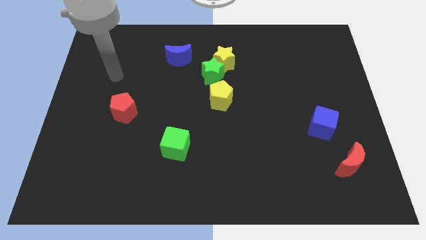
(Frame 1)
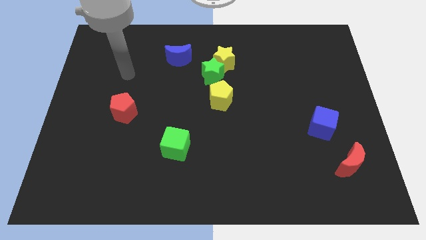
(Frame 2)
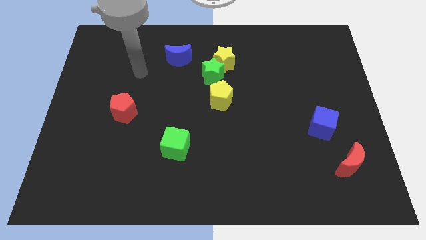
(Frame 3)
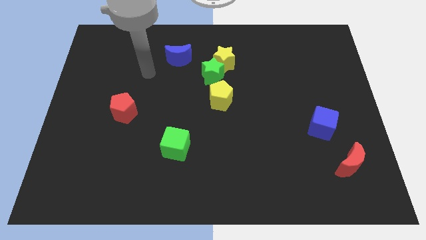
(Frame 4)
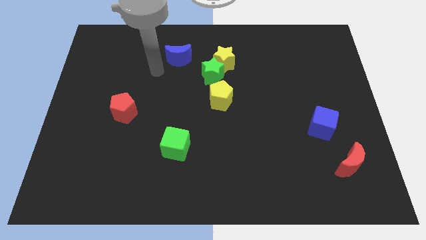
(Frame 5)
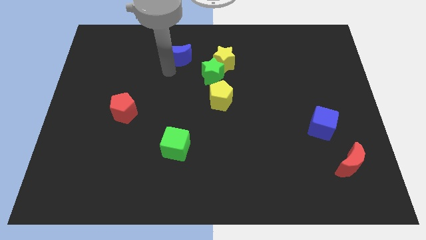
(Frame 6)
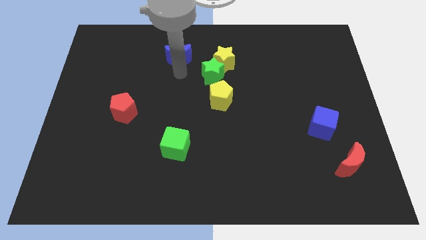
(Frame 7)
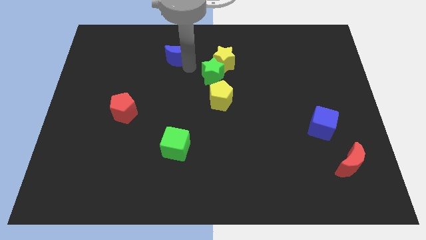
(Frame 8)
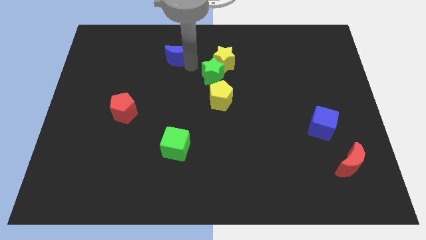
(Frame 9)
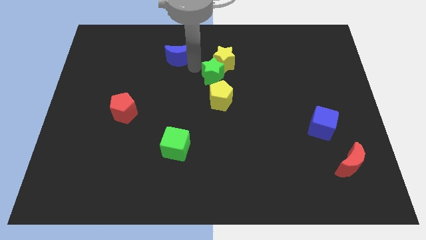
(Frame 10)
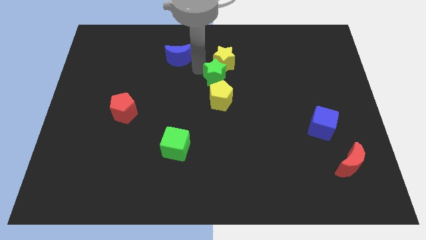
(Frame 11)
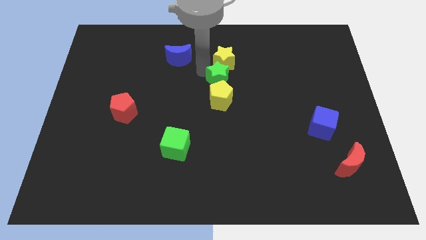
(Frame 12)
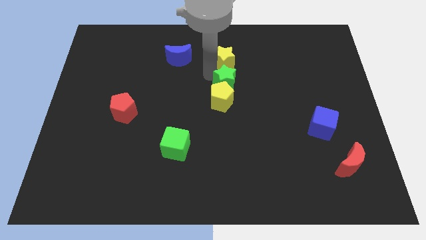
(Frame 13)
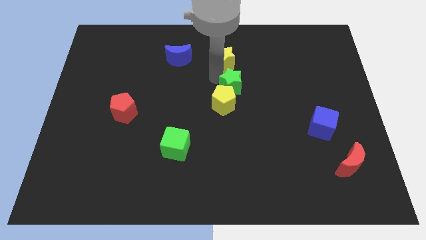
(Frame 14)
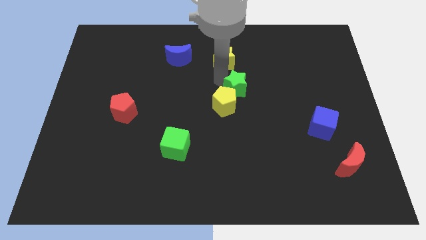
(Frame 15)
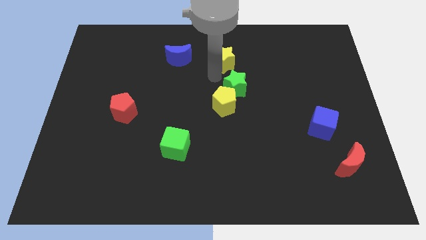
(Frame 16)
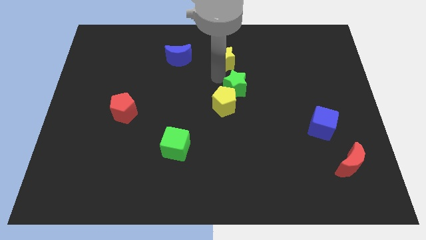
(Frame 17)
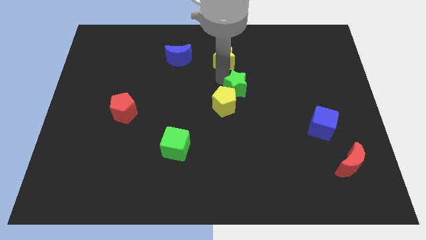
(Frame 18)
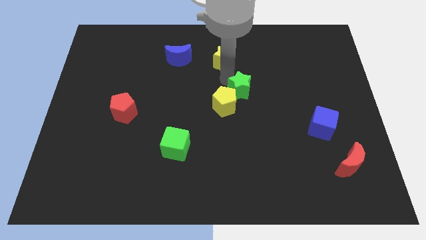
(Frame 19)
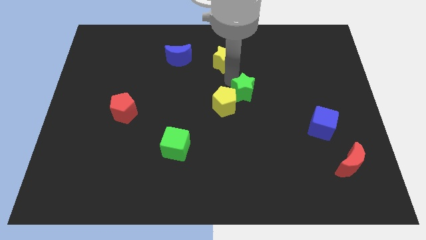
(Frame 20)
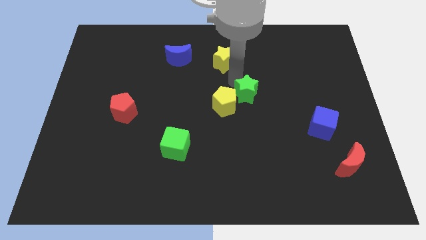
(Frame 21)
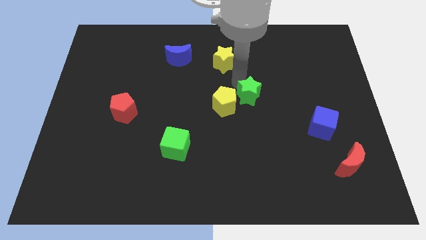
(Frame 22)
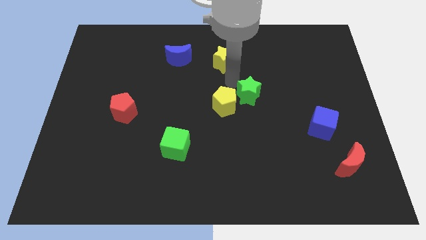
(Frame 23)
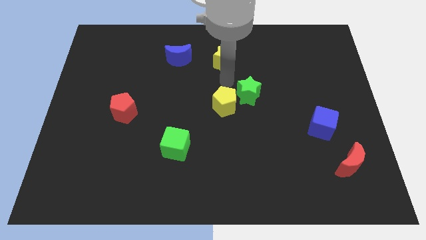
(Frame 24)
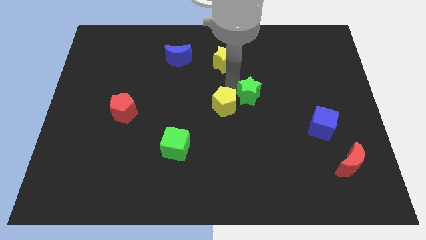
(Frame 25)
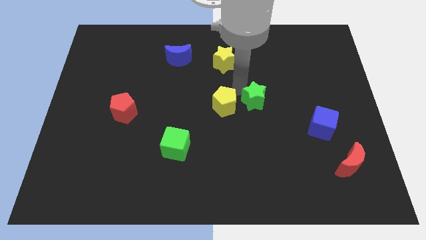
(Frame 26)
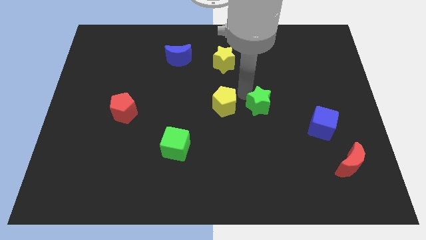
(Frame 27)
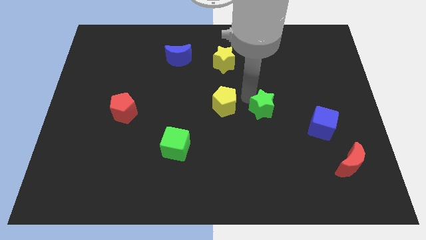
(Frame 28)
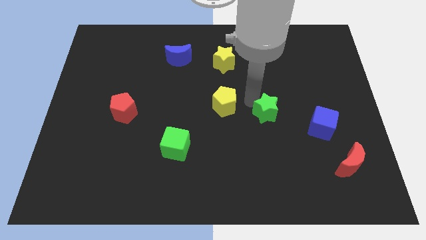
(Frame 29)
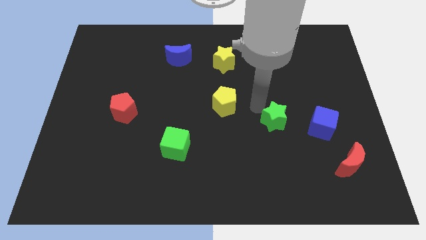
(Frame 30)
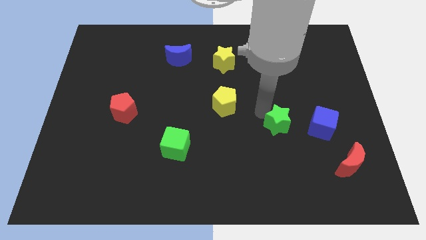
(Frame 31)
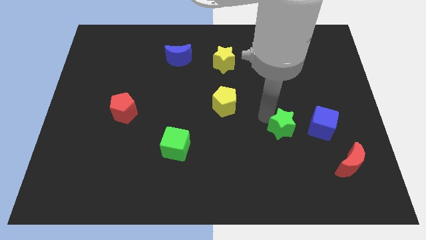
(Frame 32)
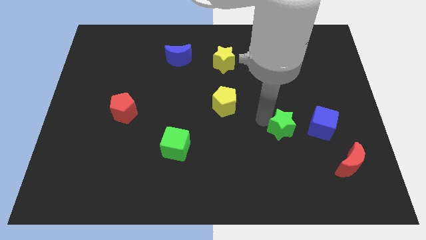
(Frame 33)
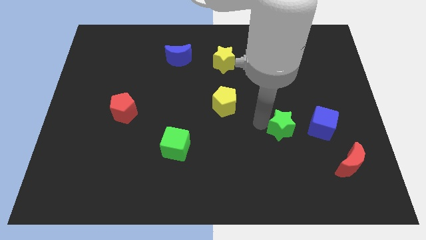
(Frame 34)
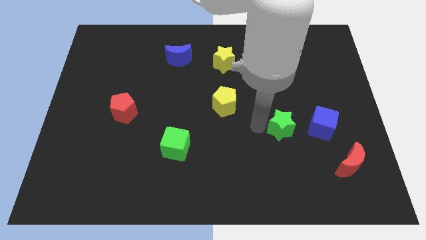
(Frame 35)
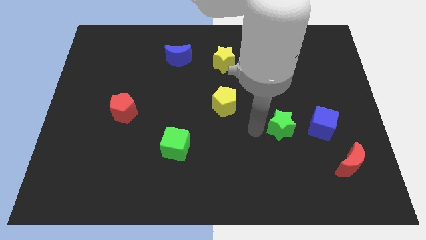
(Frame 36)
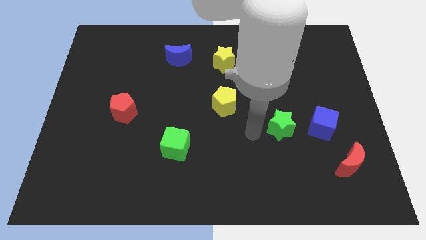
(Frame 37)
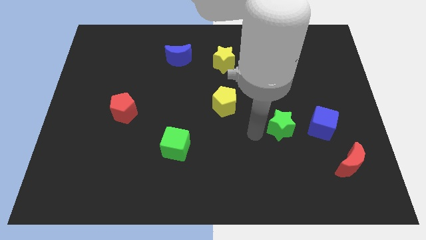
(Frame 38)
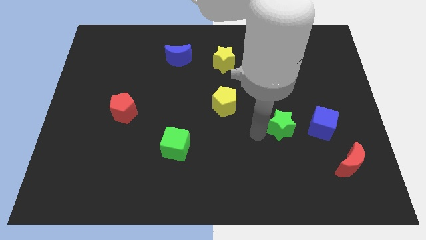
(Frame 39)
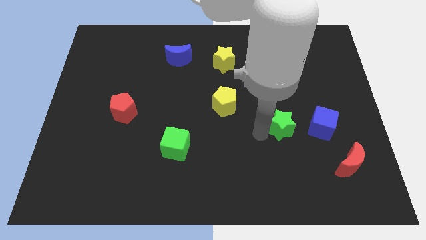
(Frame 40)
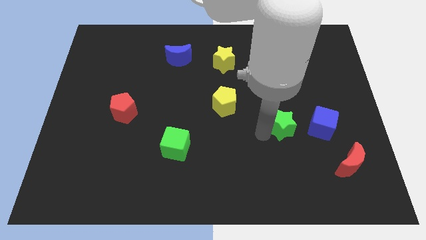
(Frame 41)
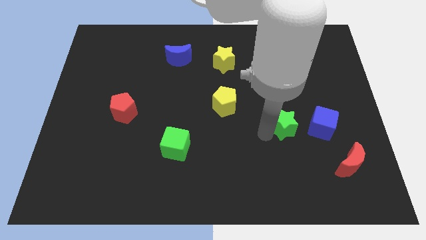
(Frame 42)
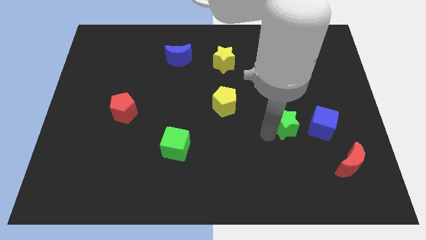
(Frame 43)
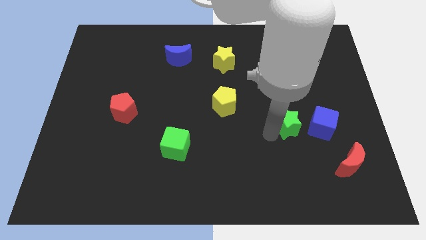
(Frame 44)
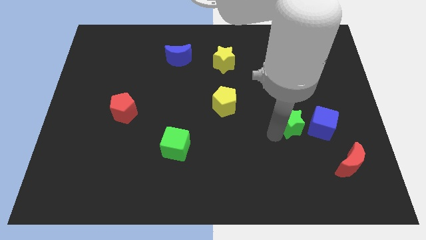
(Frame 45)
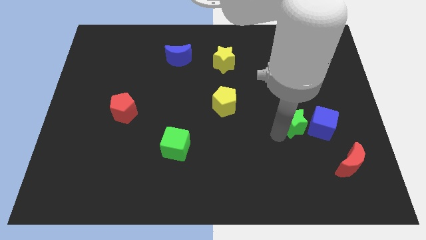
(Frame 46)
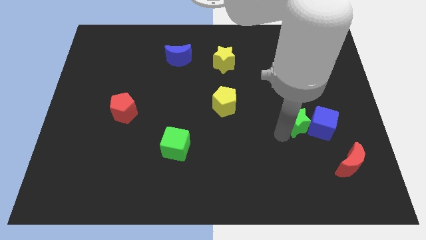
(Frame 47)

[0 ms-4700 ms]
put the green star close to the blue cube

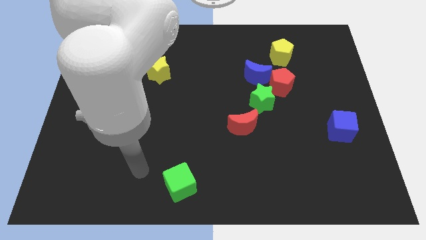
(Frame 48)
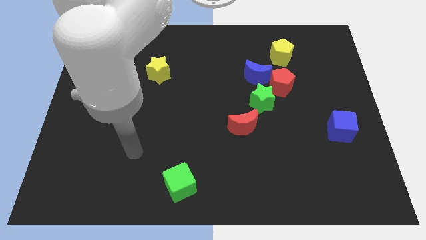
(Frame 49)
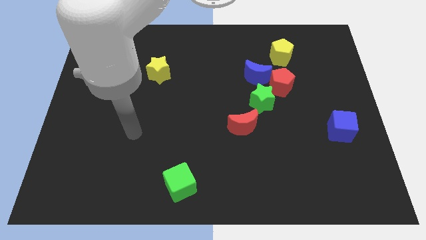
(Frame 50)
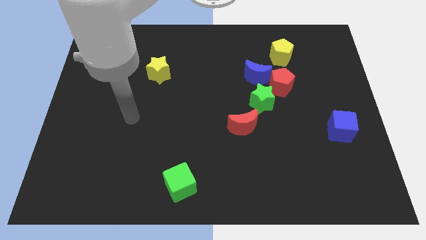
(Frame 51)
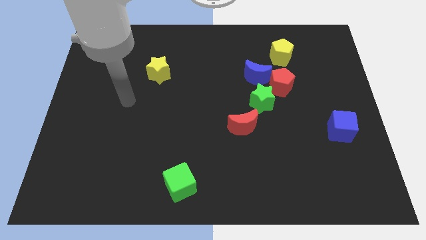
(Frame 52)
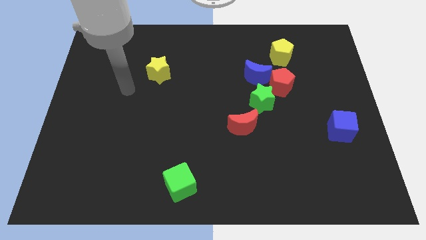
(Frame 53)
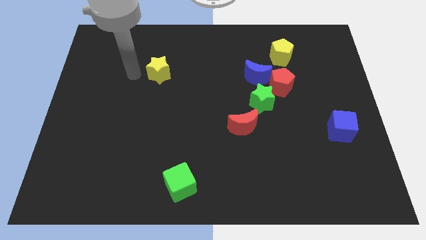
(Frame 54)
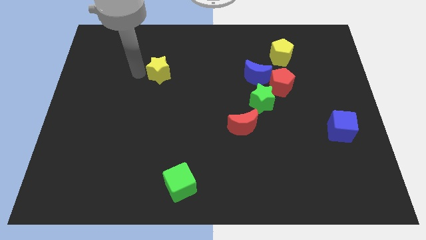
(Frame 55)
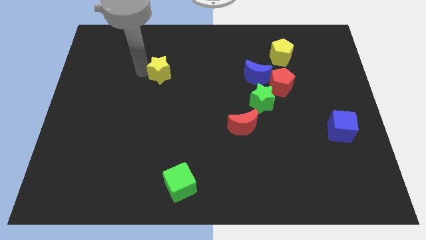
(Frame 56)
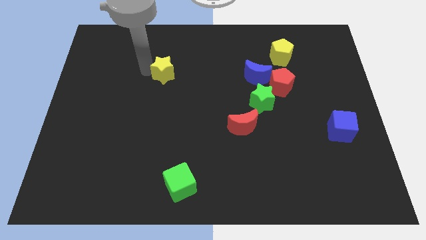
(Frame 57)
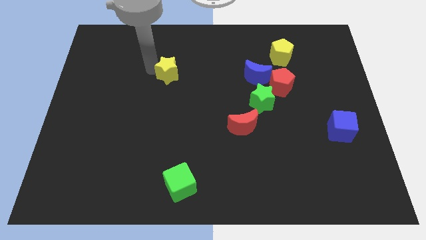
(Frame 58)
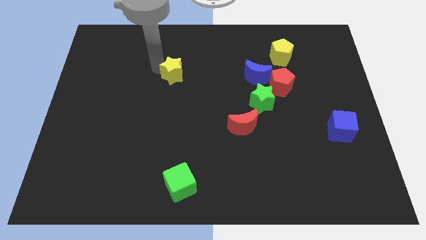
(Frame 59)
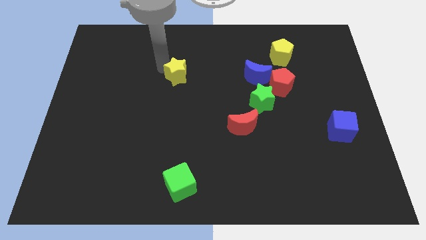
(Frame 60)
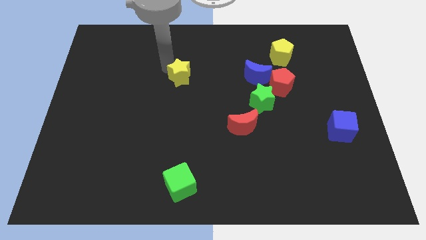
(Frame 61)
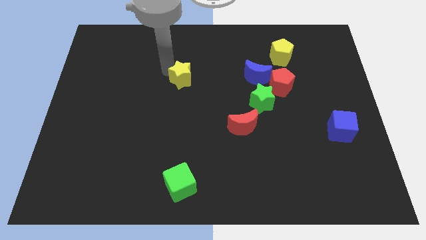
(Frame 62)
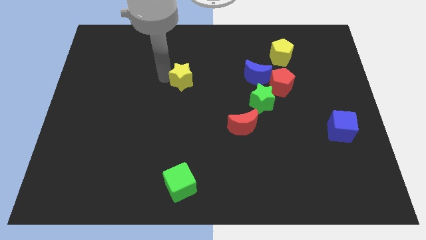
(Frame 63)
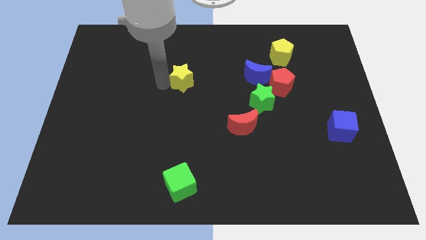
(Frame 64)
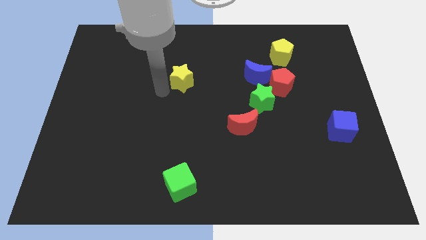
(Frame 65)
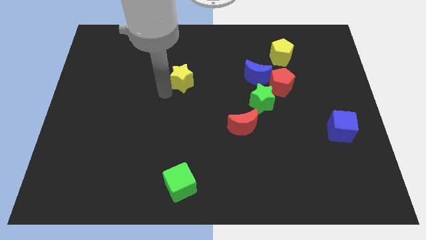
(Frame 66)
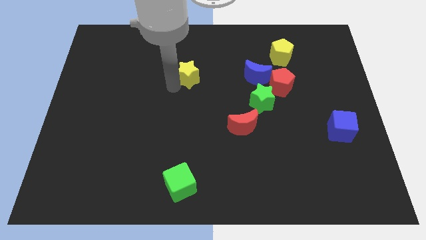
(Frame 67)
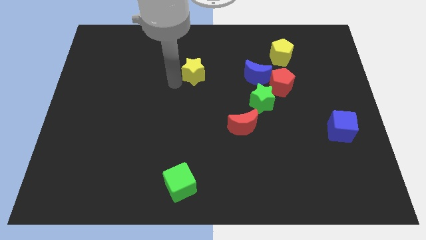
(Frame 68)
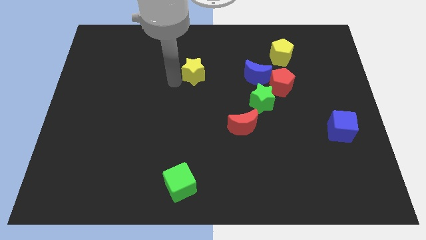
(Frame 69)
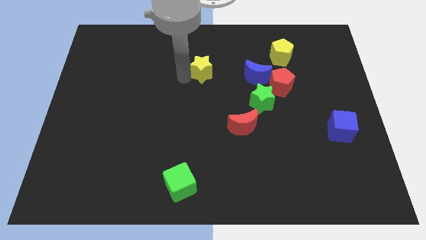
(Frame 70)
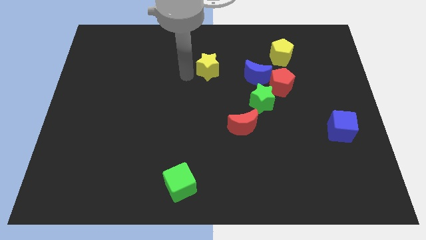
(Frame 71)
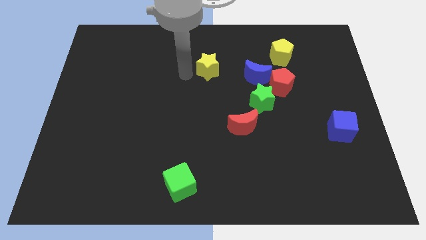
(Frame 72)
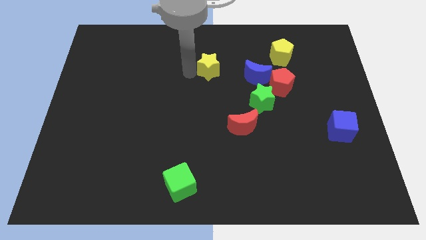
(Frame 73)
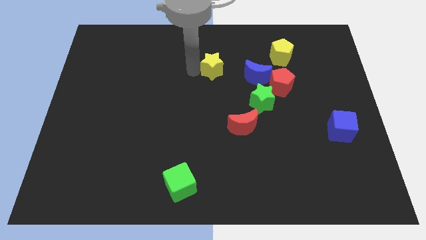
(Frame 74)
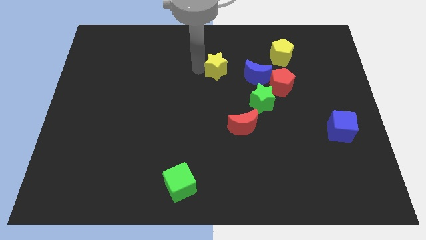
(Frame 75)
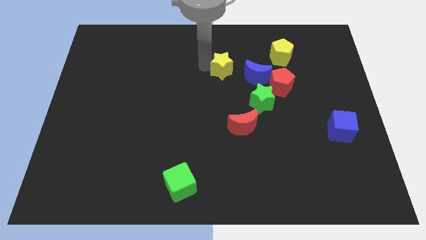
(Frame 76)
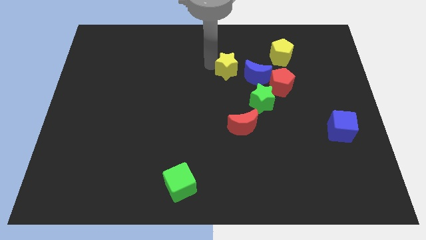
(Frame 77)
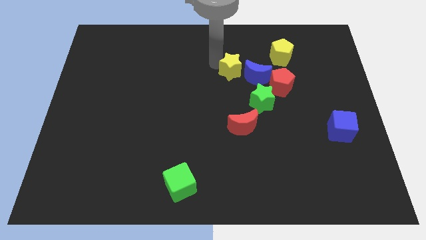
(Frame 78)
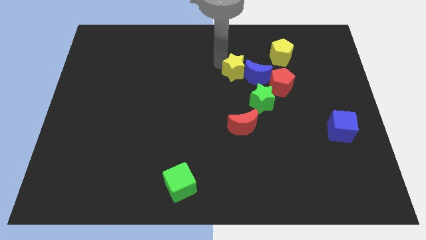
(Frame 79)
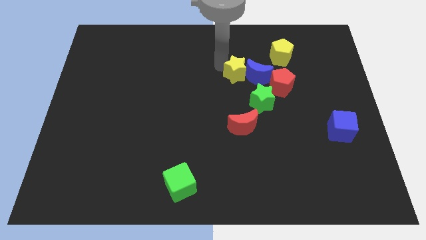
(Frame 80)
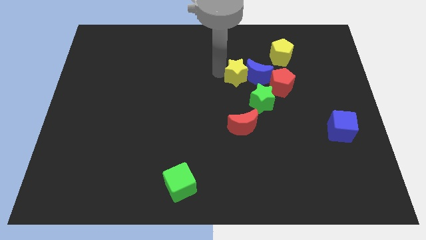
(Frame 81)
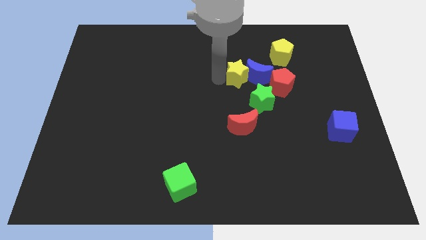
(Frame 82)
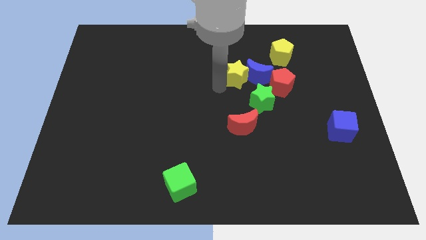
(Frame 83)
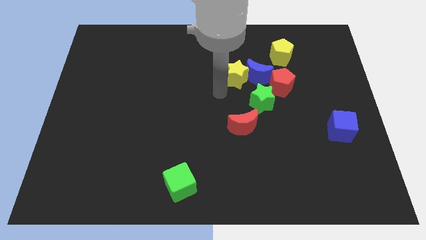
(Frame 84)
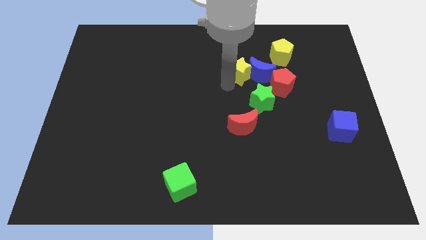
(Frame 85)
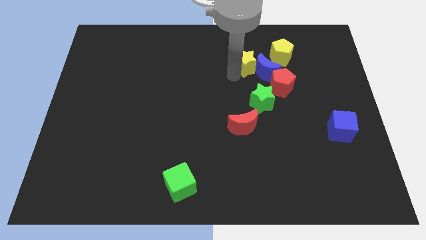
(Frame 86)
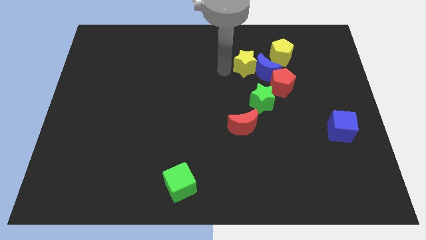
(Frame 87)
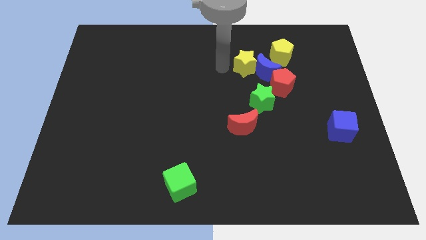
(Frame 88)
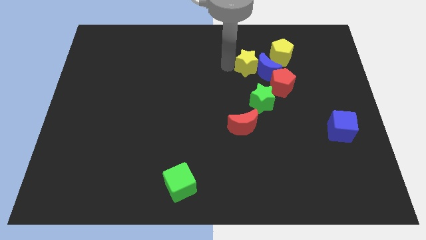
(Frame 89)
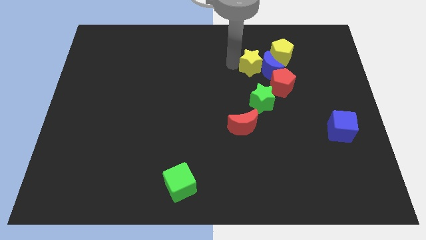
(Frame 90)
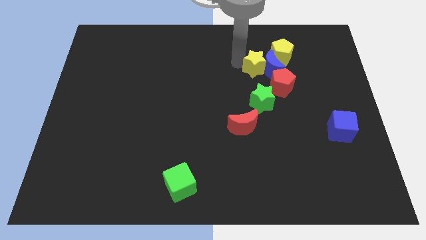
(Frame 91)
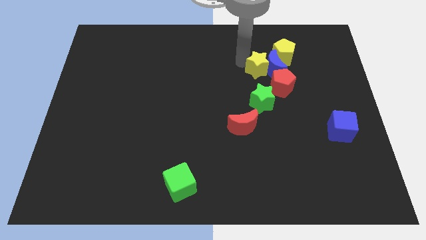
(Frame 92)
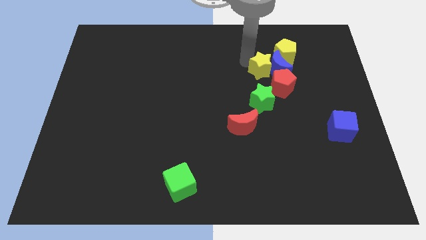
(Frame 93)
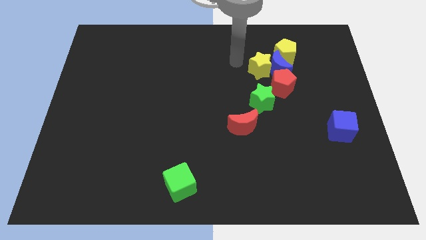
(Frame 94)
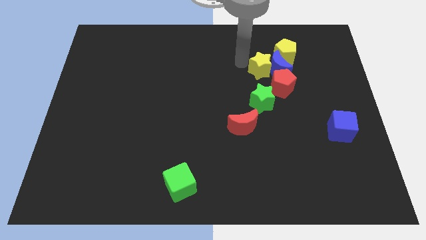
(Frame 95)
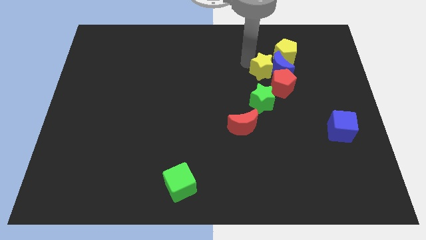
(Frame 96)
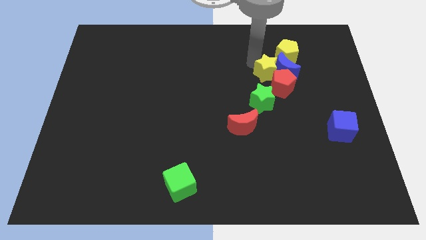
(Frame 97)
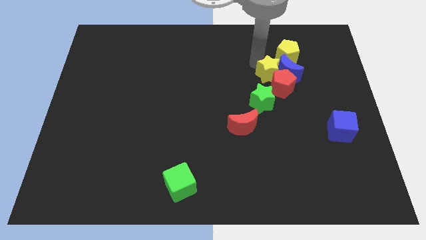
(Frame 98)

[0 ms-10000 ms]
push the yellow star to the red pentagon
